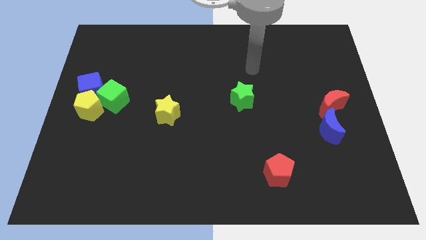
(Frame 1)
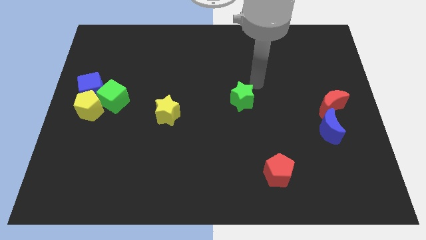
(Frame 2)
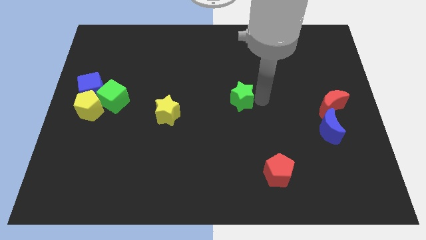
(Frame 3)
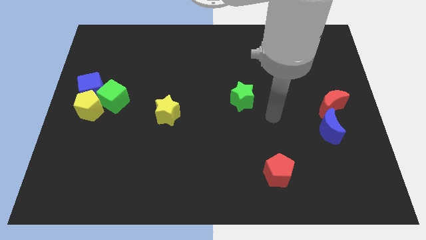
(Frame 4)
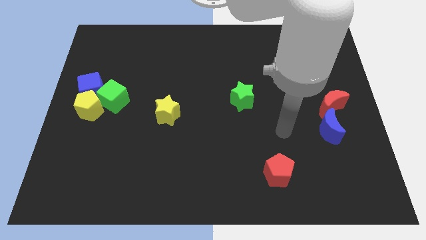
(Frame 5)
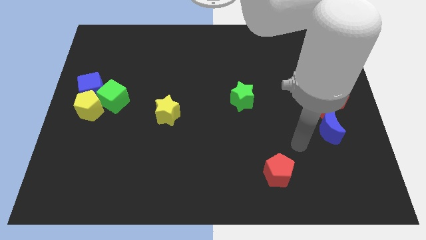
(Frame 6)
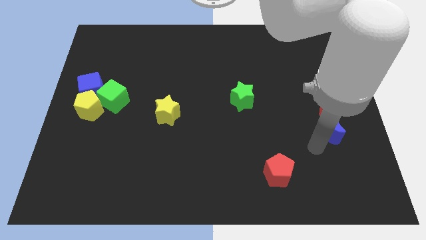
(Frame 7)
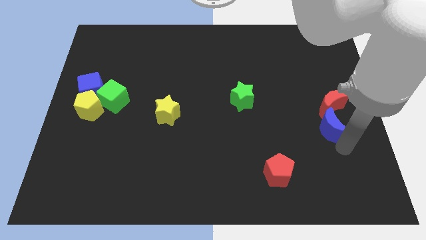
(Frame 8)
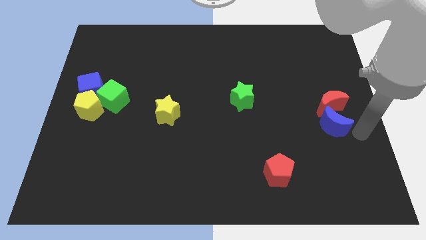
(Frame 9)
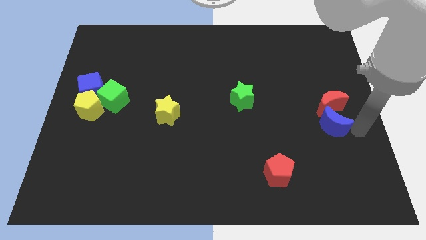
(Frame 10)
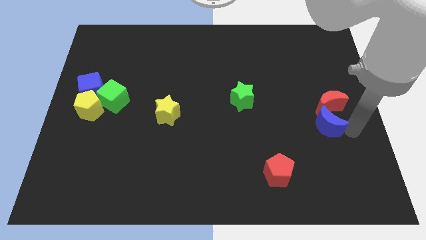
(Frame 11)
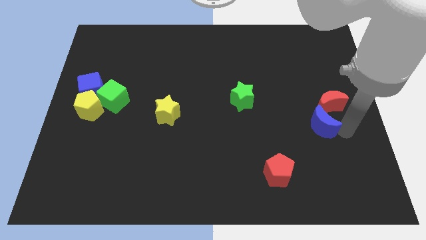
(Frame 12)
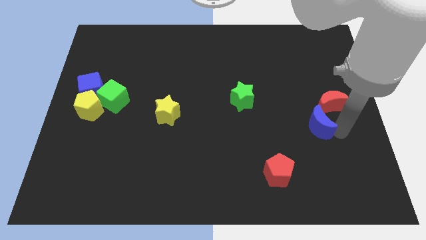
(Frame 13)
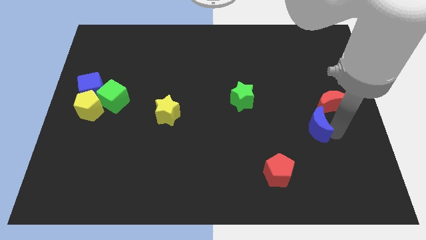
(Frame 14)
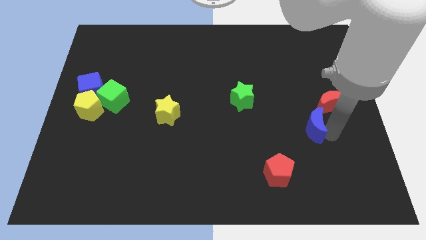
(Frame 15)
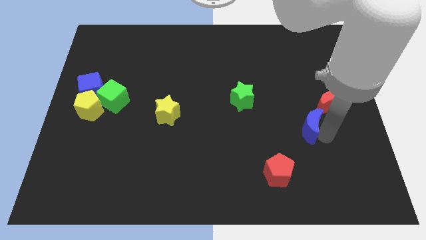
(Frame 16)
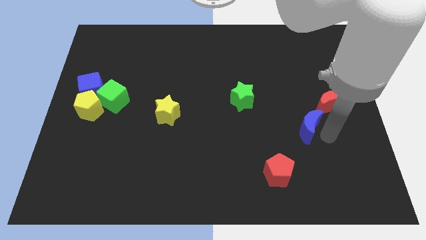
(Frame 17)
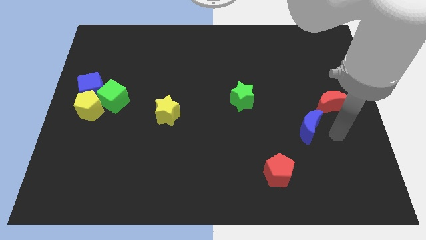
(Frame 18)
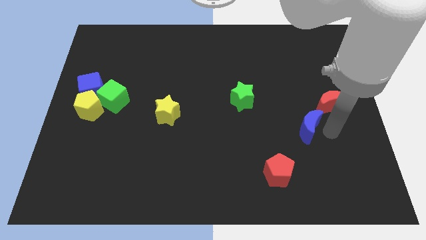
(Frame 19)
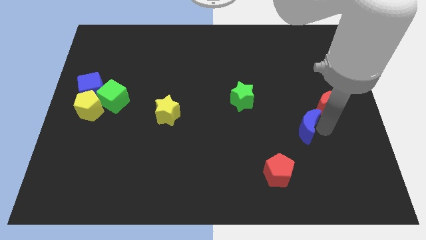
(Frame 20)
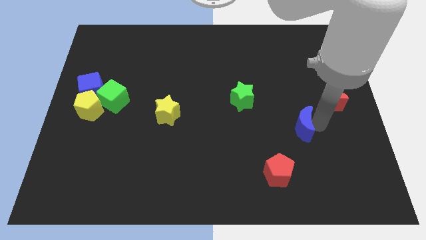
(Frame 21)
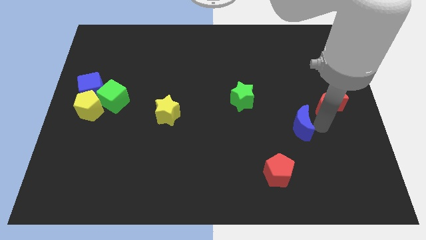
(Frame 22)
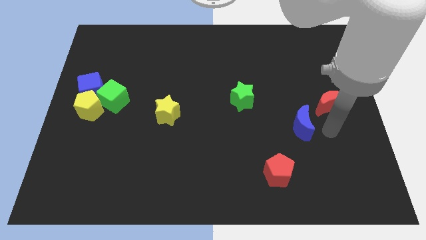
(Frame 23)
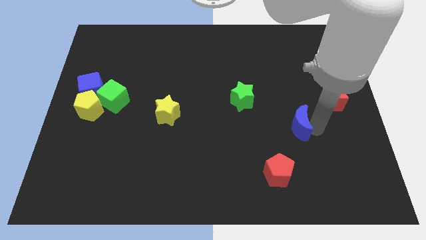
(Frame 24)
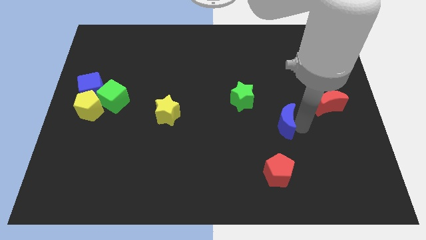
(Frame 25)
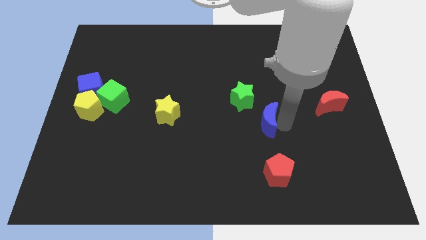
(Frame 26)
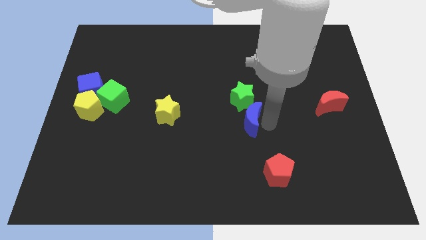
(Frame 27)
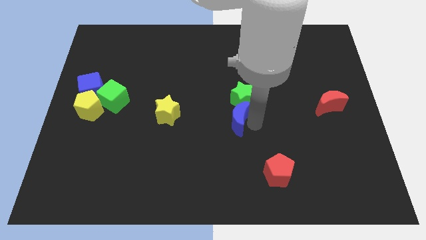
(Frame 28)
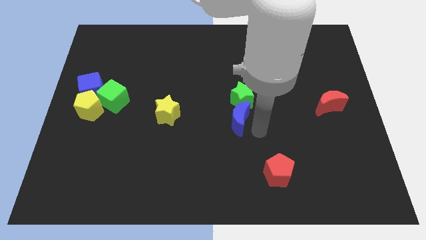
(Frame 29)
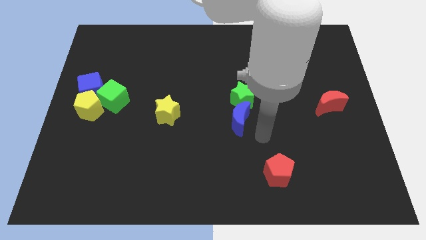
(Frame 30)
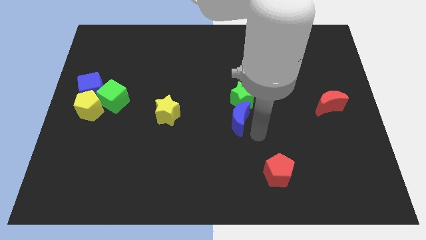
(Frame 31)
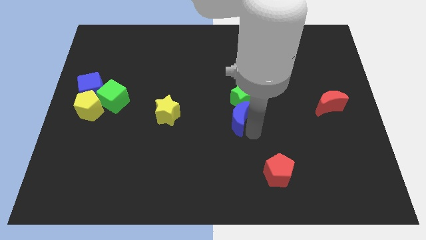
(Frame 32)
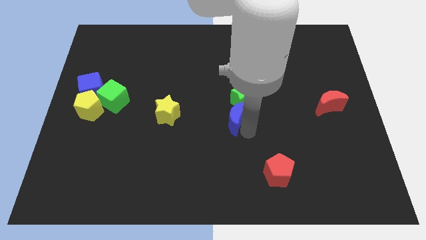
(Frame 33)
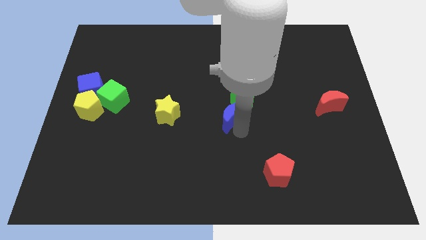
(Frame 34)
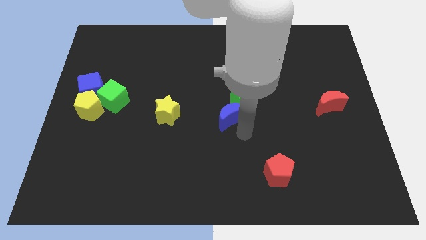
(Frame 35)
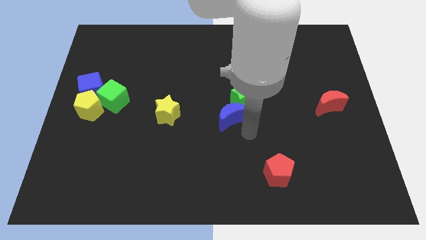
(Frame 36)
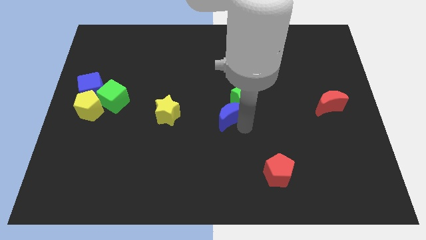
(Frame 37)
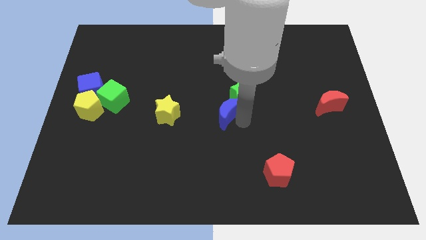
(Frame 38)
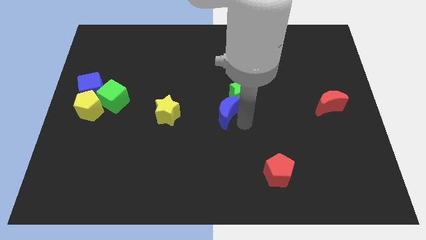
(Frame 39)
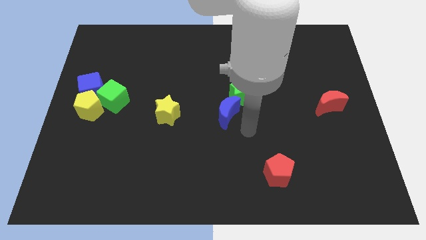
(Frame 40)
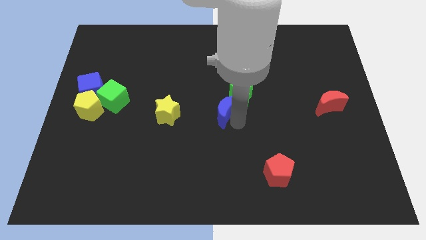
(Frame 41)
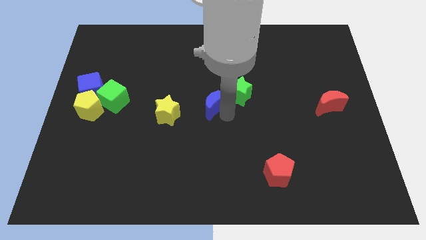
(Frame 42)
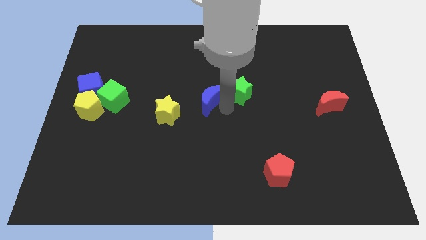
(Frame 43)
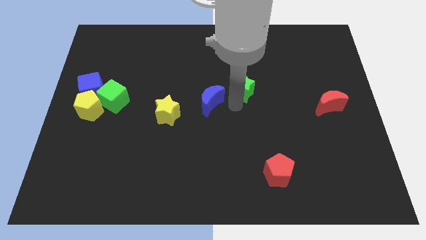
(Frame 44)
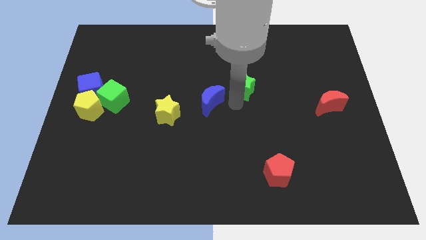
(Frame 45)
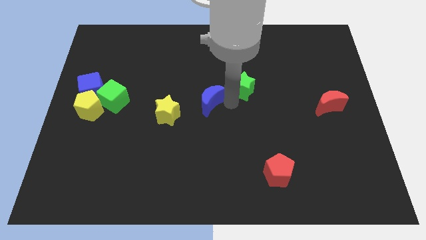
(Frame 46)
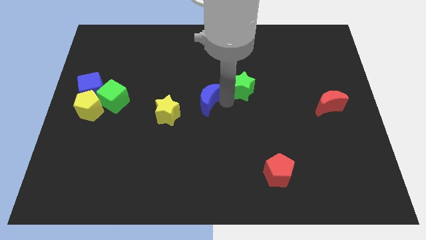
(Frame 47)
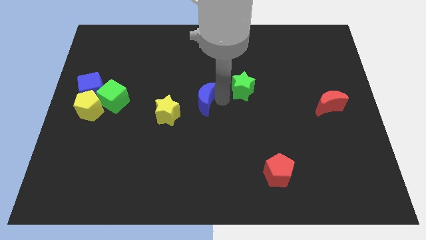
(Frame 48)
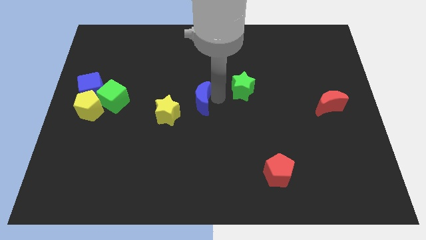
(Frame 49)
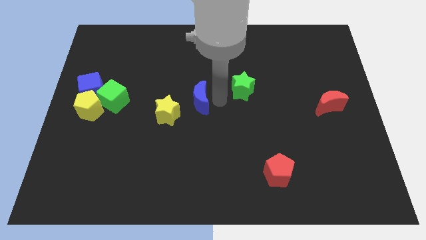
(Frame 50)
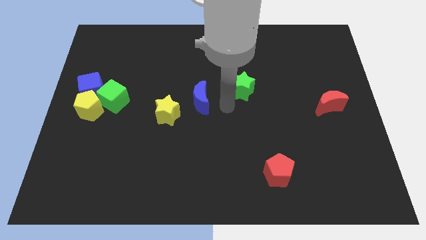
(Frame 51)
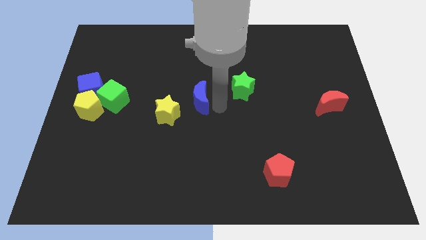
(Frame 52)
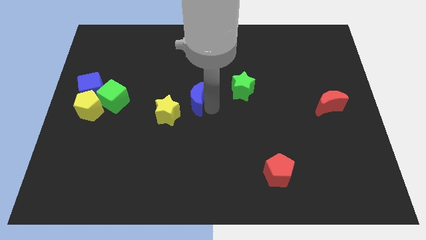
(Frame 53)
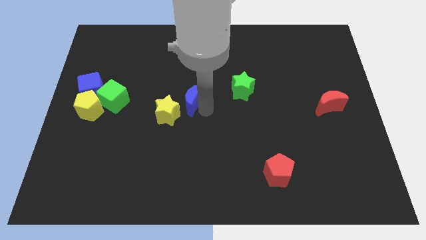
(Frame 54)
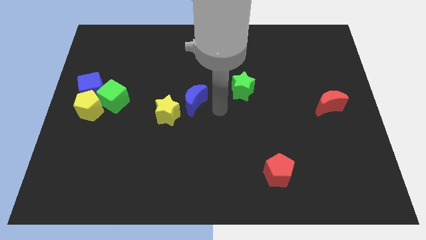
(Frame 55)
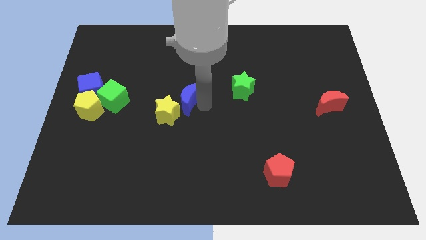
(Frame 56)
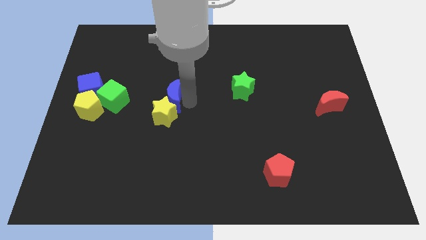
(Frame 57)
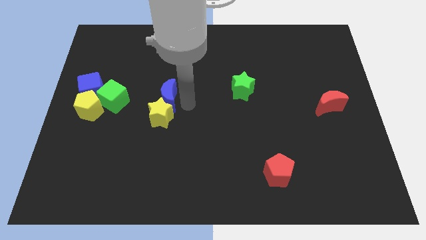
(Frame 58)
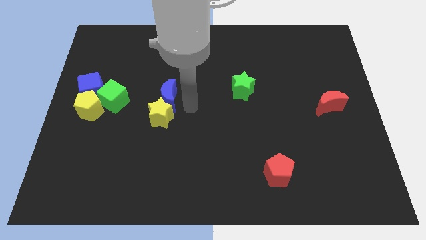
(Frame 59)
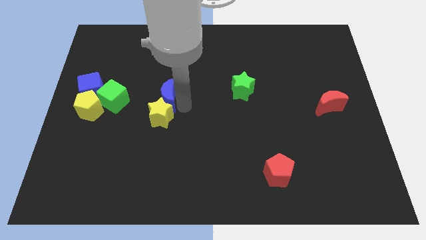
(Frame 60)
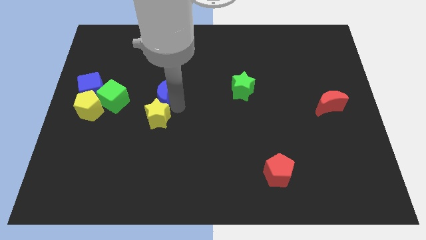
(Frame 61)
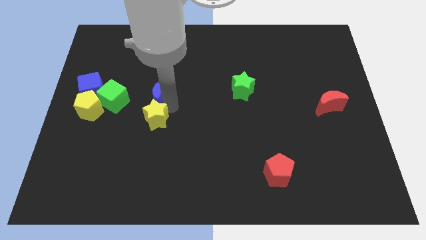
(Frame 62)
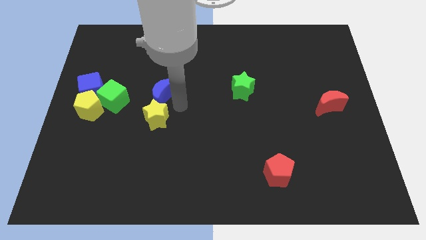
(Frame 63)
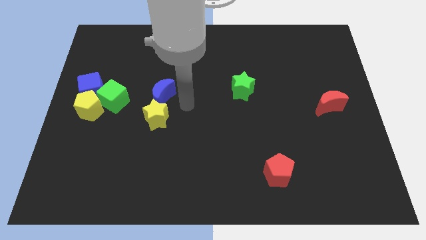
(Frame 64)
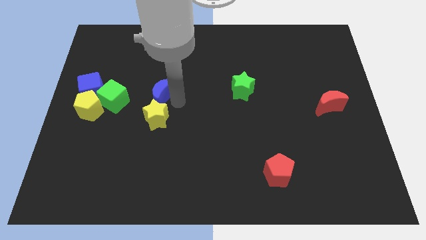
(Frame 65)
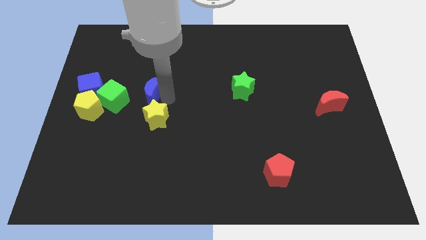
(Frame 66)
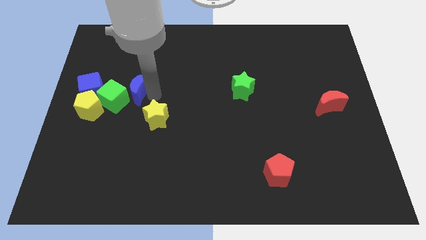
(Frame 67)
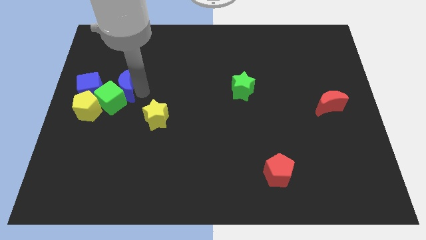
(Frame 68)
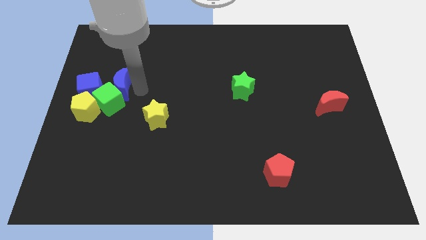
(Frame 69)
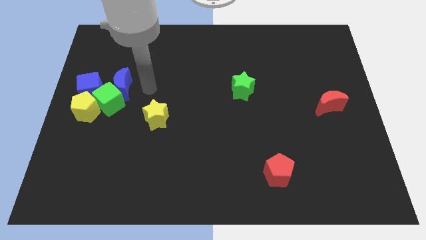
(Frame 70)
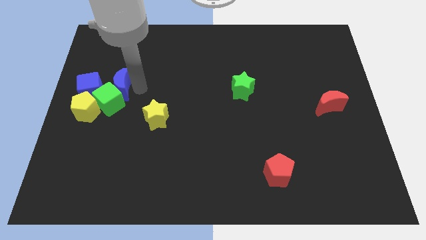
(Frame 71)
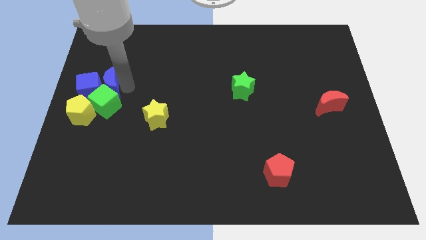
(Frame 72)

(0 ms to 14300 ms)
put the blue moon to the blue cube
